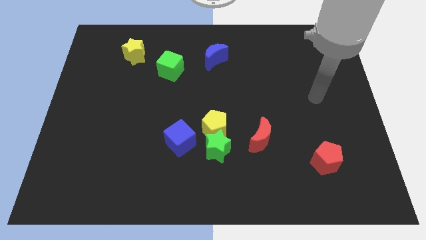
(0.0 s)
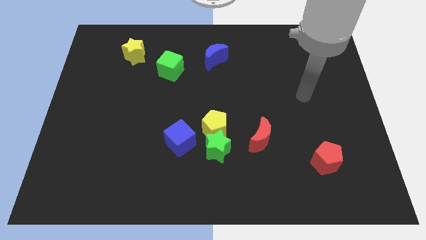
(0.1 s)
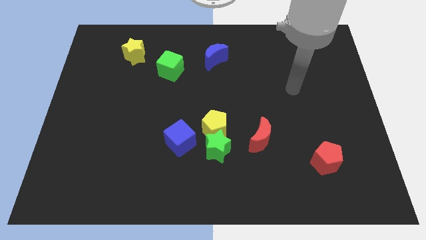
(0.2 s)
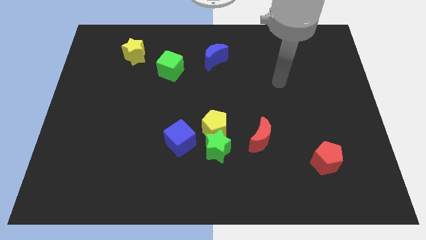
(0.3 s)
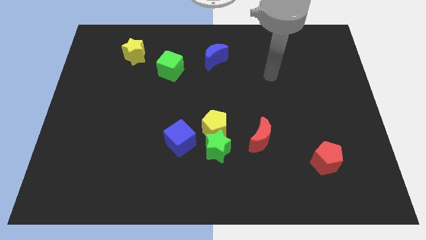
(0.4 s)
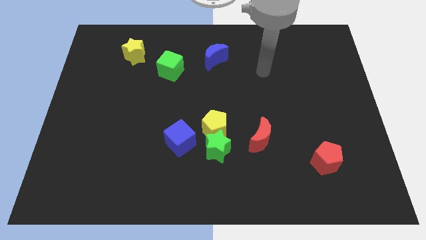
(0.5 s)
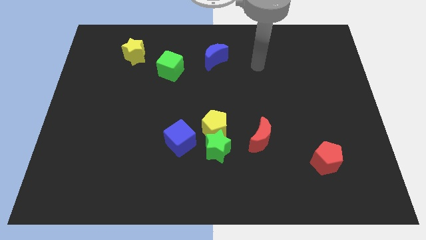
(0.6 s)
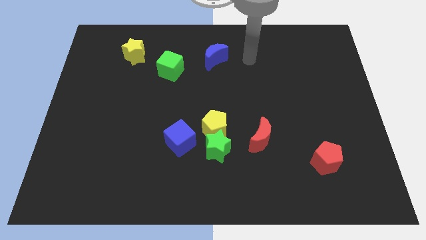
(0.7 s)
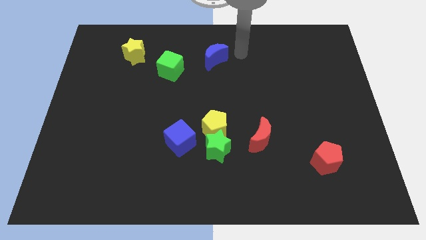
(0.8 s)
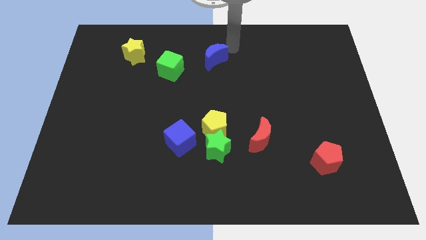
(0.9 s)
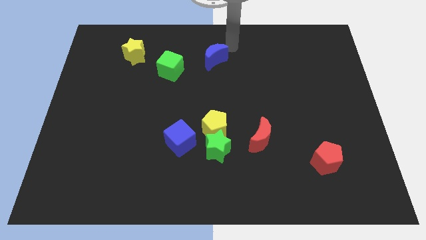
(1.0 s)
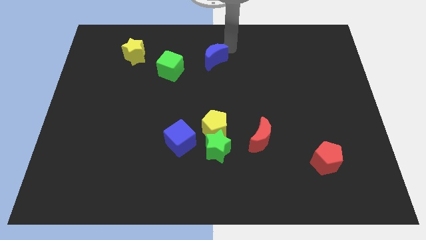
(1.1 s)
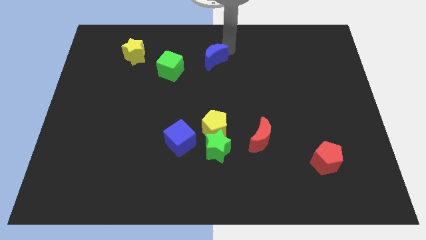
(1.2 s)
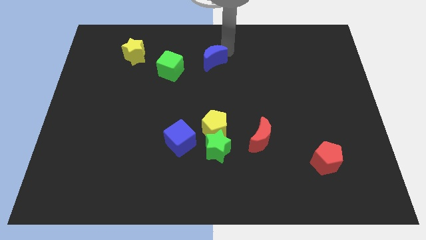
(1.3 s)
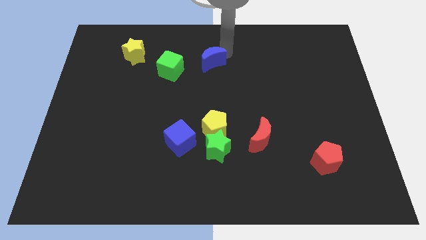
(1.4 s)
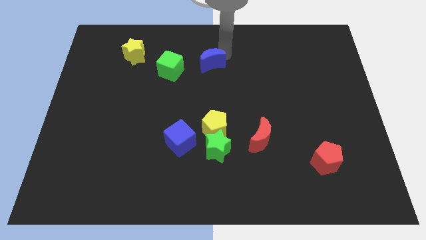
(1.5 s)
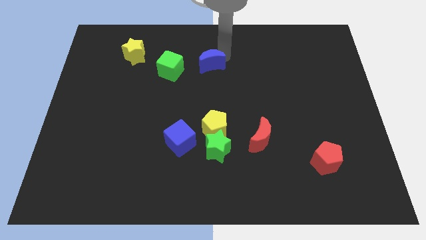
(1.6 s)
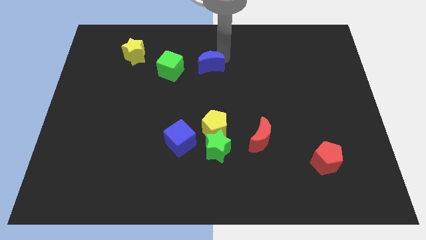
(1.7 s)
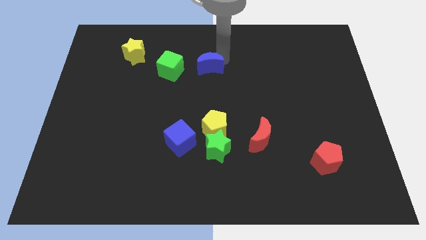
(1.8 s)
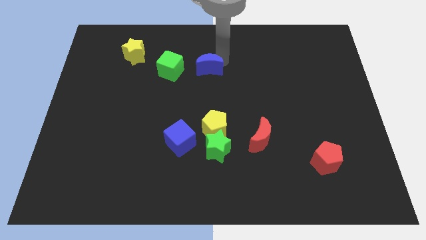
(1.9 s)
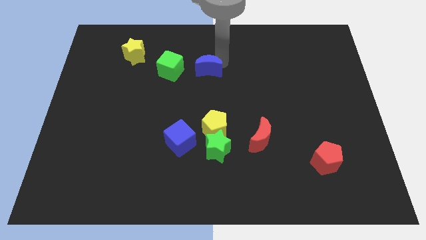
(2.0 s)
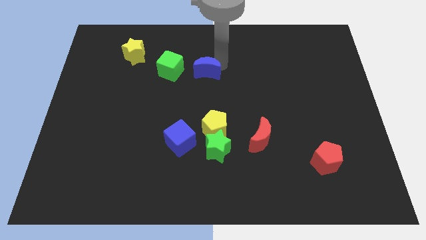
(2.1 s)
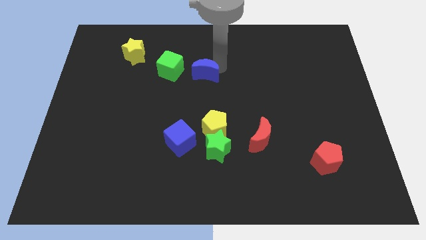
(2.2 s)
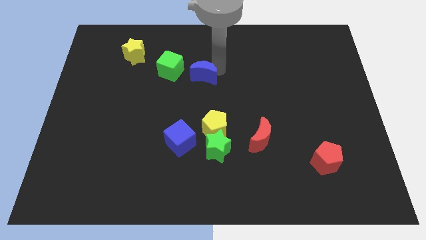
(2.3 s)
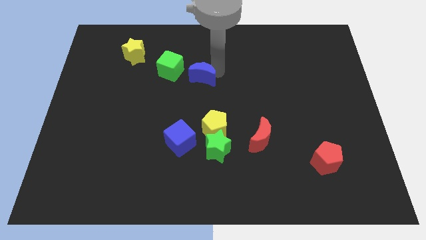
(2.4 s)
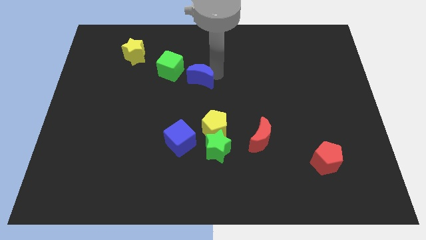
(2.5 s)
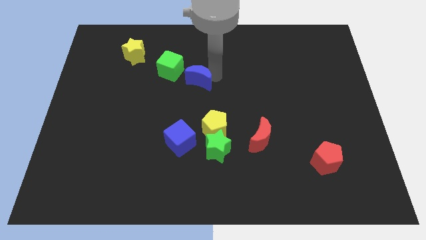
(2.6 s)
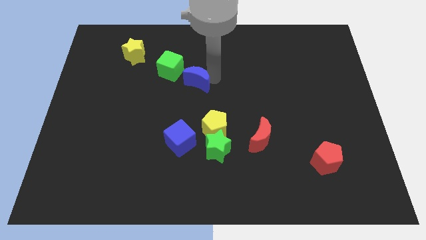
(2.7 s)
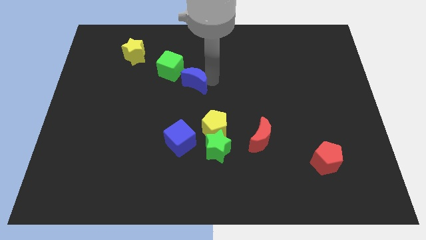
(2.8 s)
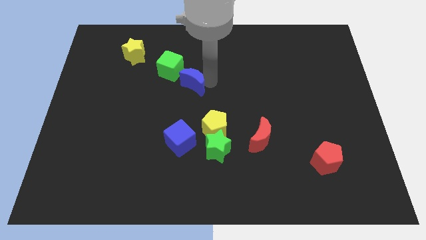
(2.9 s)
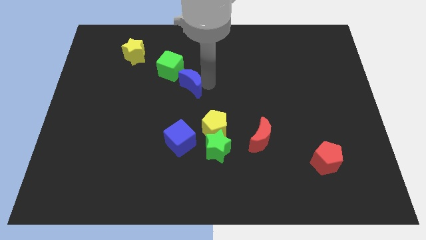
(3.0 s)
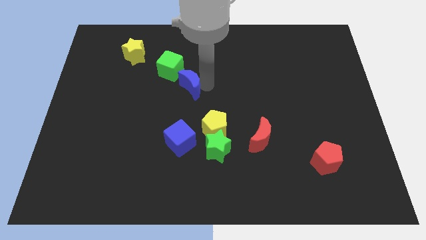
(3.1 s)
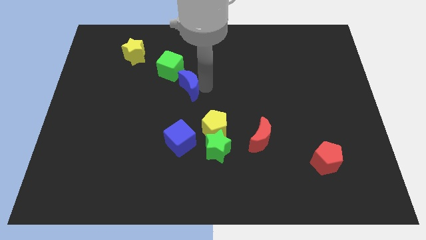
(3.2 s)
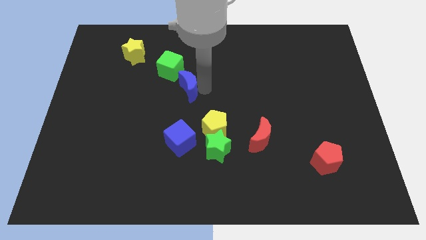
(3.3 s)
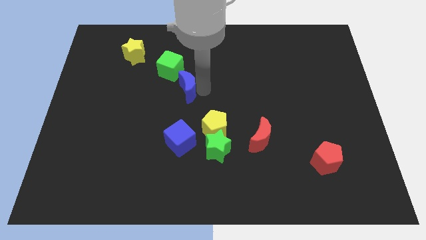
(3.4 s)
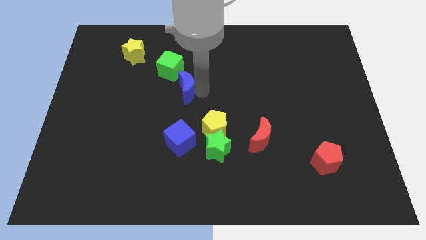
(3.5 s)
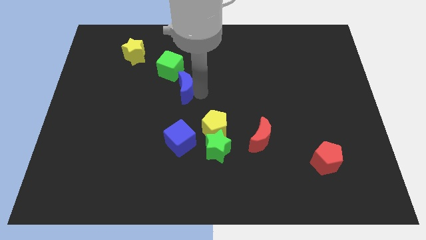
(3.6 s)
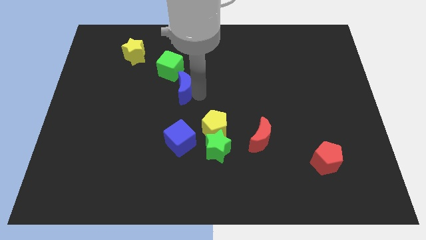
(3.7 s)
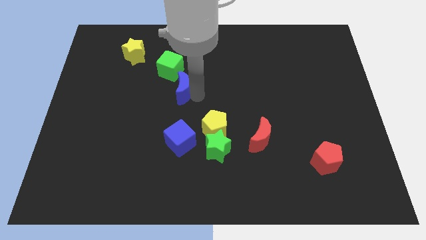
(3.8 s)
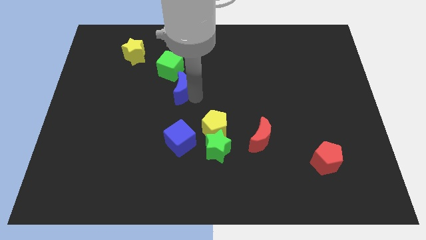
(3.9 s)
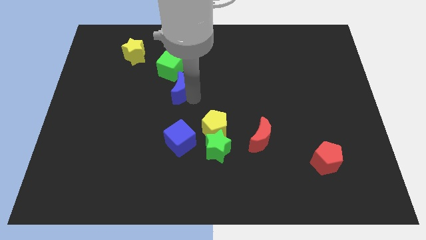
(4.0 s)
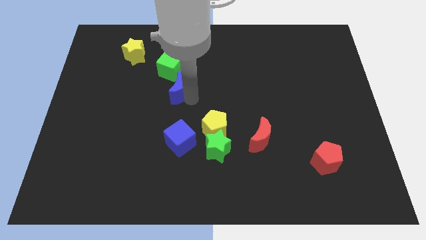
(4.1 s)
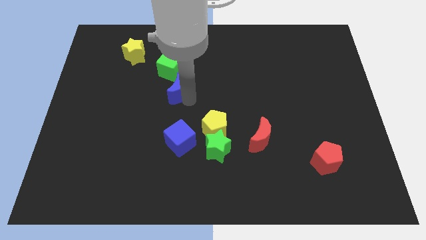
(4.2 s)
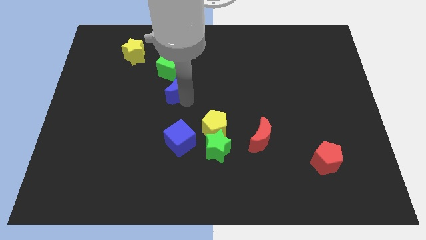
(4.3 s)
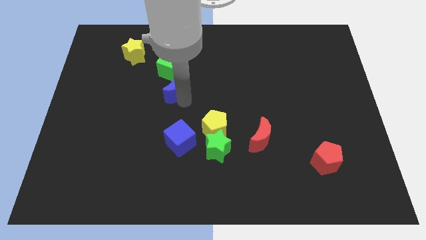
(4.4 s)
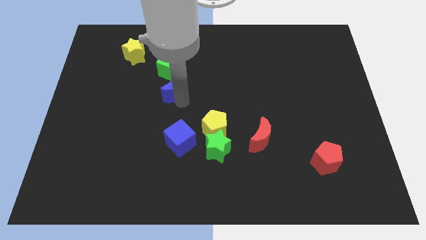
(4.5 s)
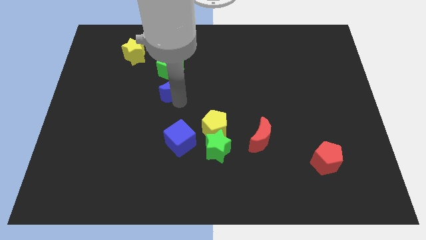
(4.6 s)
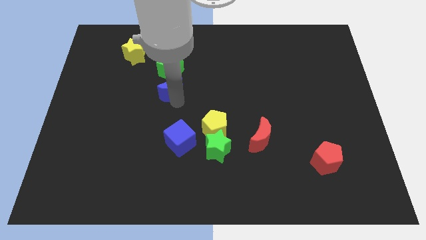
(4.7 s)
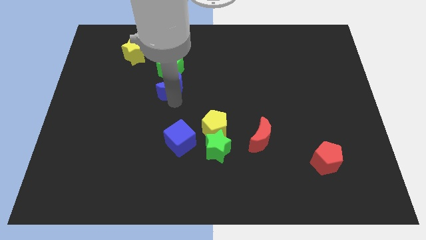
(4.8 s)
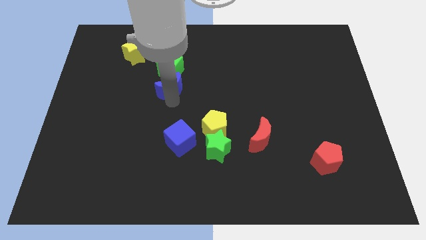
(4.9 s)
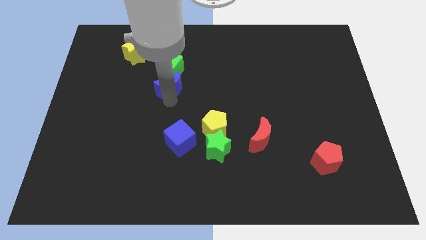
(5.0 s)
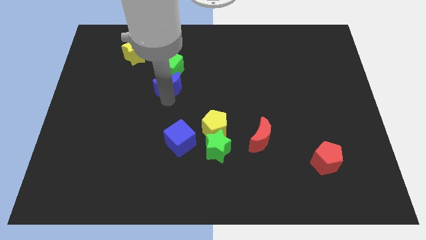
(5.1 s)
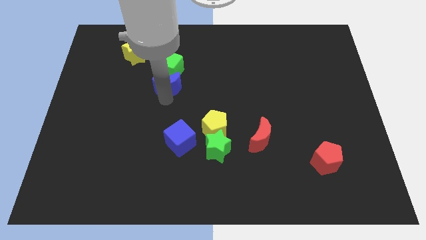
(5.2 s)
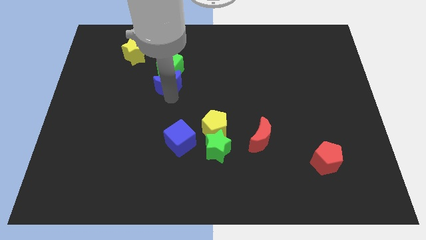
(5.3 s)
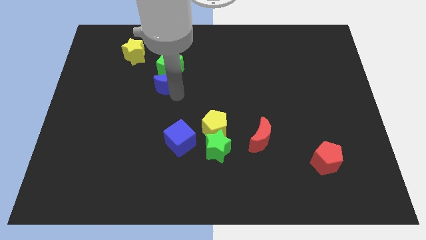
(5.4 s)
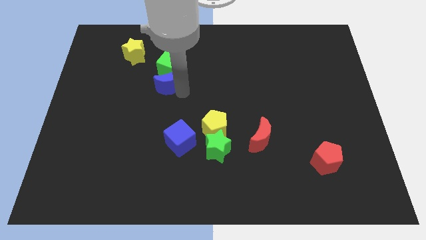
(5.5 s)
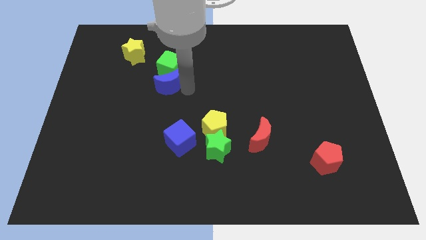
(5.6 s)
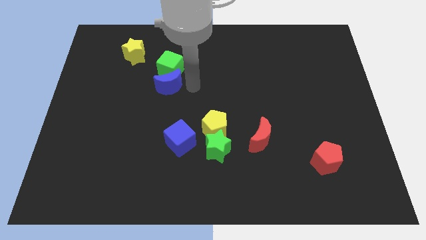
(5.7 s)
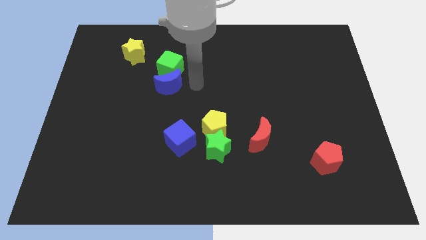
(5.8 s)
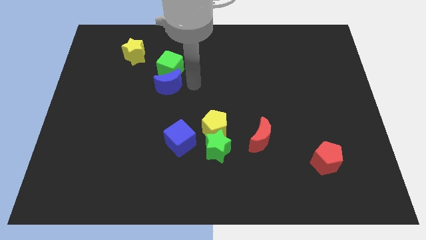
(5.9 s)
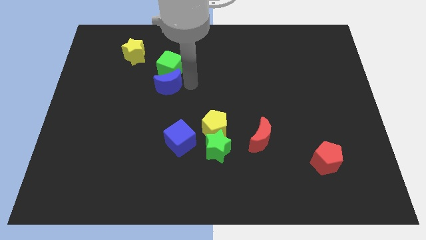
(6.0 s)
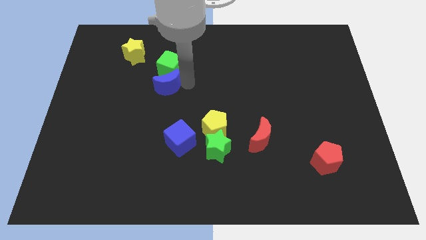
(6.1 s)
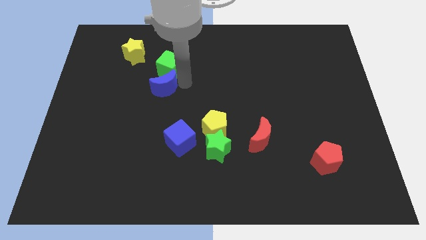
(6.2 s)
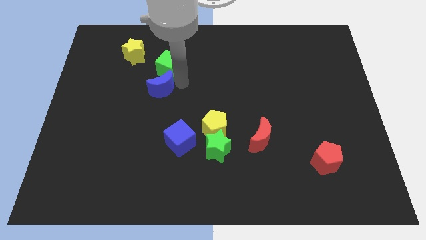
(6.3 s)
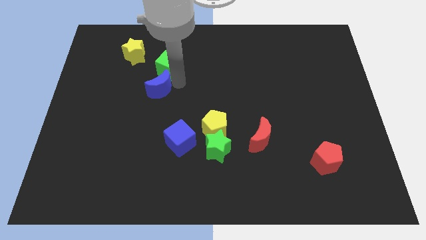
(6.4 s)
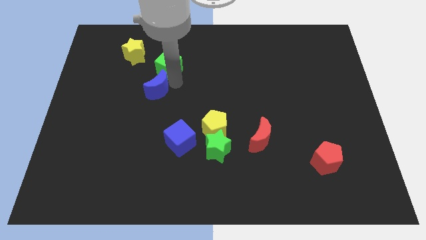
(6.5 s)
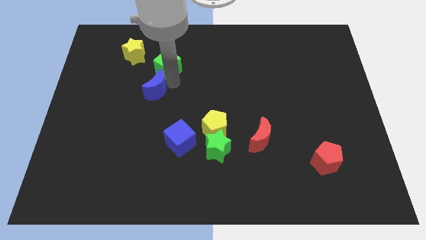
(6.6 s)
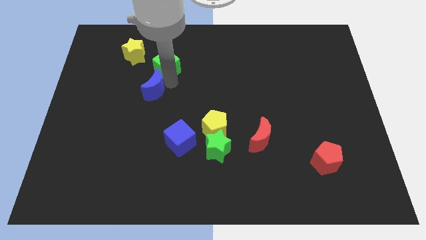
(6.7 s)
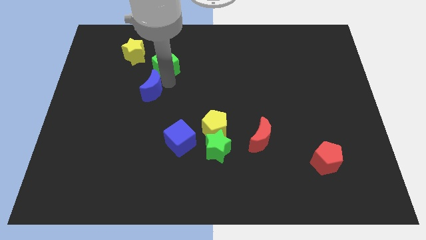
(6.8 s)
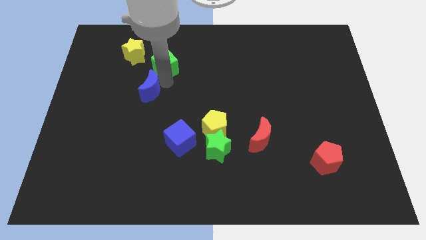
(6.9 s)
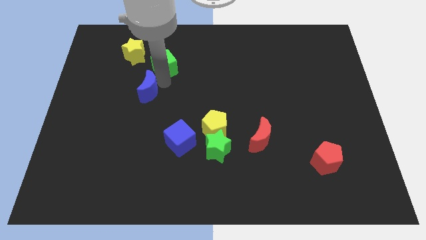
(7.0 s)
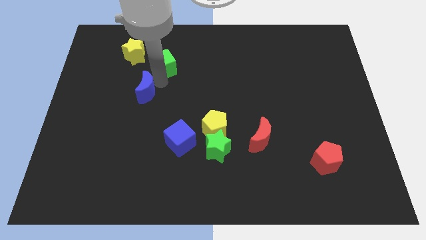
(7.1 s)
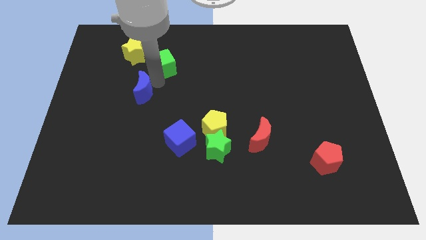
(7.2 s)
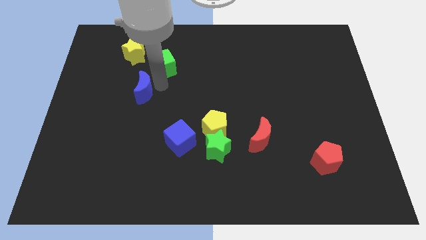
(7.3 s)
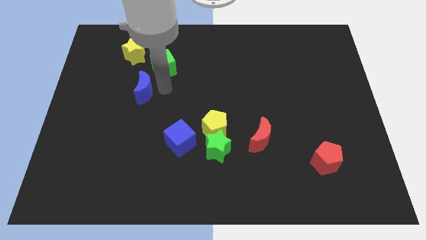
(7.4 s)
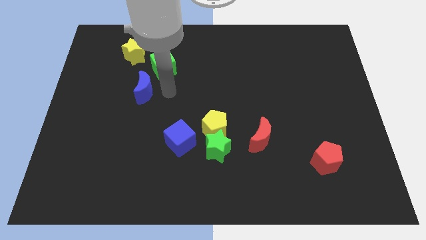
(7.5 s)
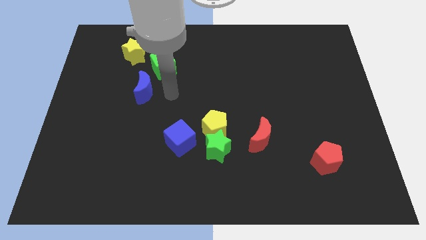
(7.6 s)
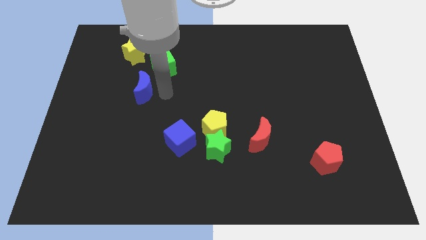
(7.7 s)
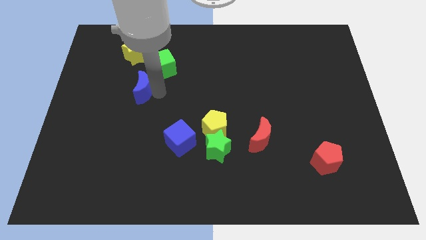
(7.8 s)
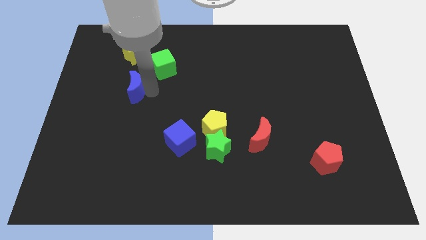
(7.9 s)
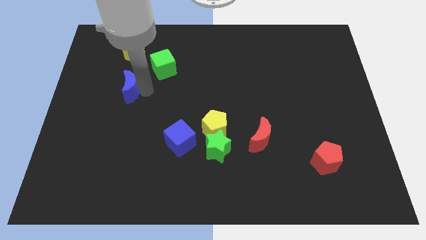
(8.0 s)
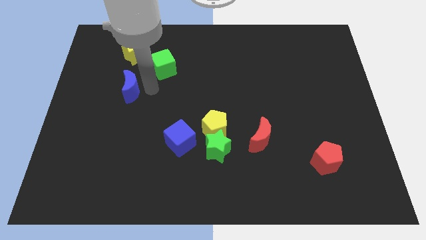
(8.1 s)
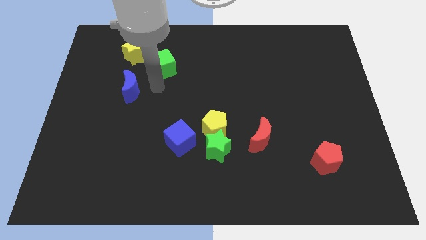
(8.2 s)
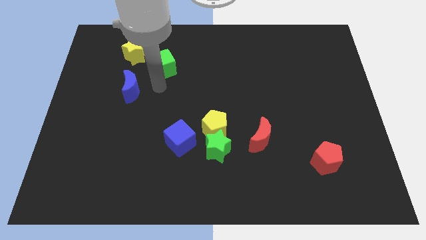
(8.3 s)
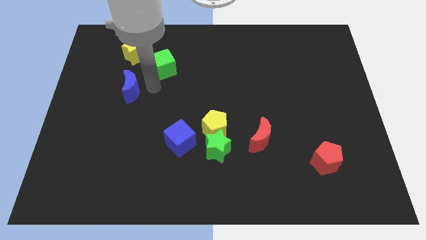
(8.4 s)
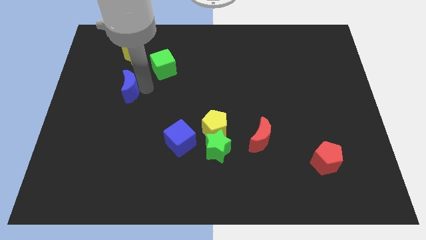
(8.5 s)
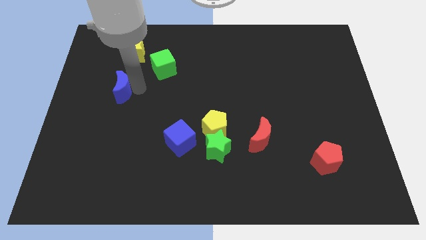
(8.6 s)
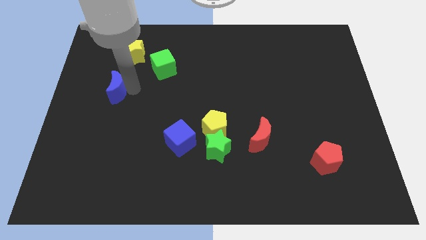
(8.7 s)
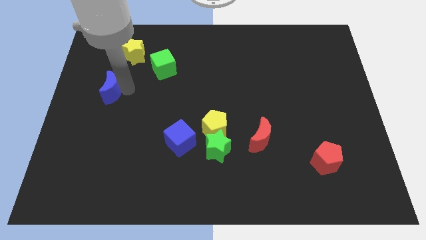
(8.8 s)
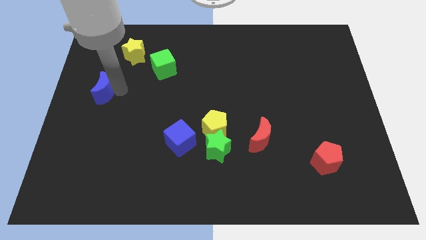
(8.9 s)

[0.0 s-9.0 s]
put the blue moon to the center left
